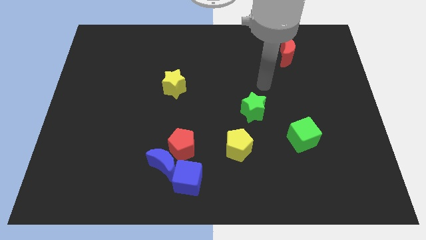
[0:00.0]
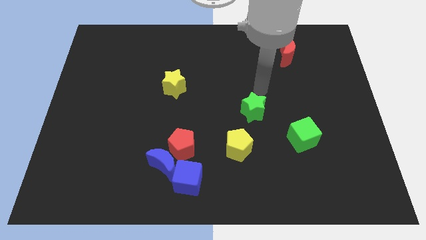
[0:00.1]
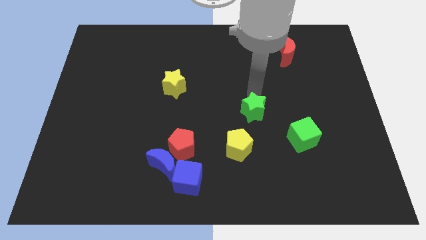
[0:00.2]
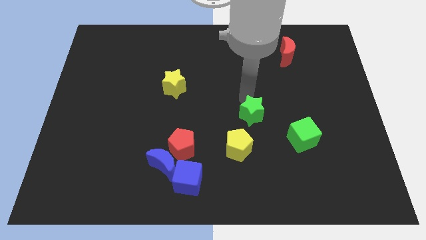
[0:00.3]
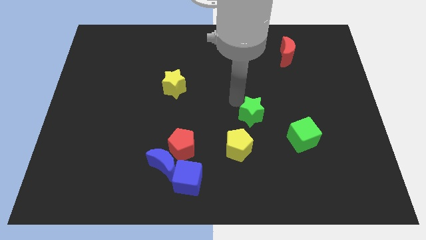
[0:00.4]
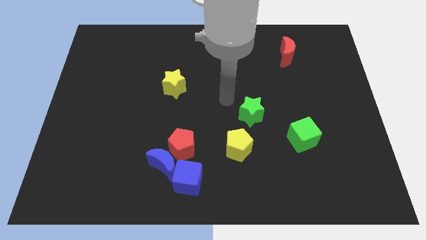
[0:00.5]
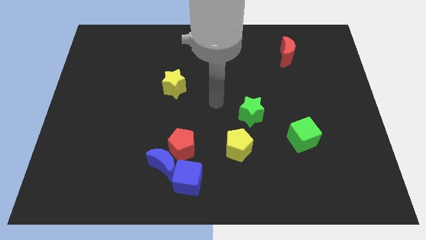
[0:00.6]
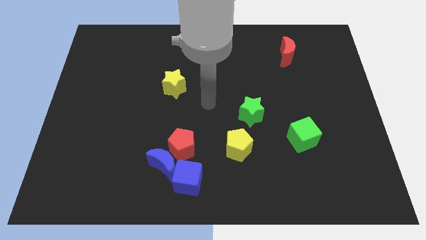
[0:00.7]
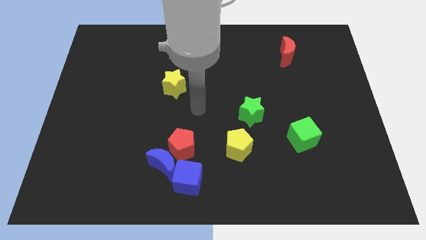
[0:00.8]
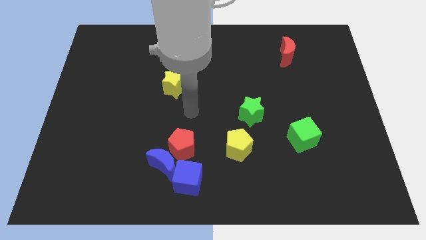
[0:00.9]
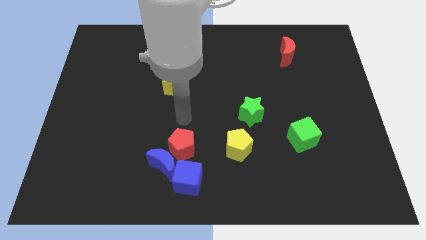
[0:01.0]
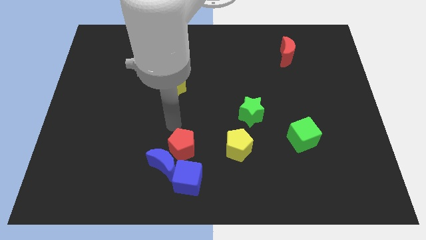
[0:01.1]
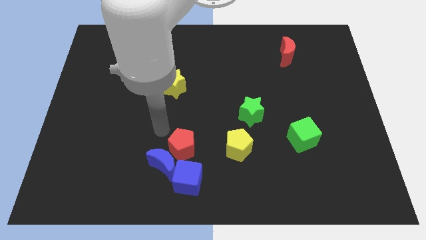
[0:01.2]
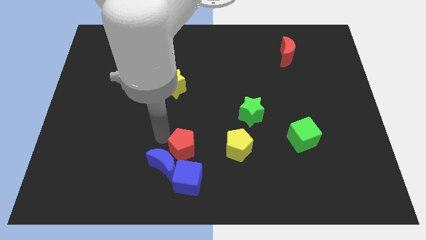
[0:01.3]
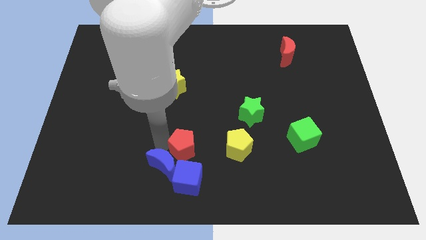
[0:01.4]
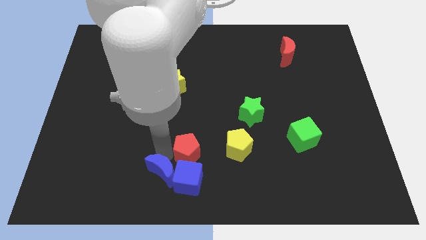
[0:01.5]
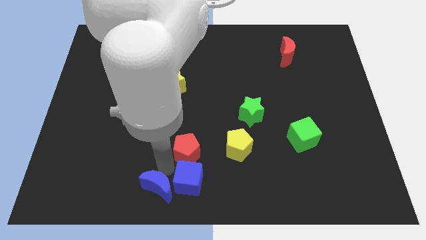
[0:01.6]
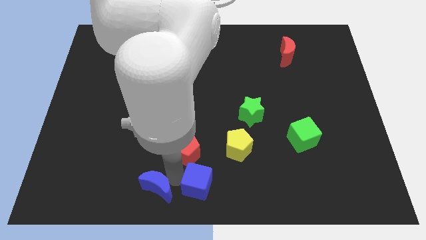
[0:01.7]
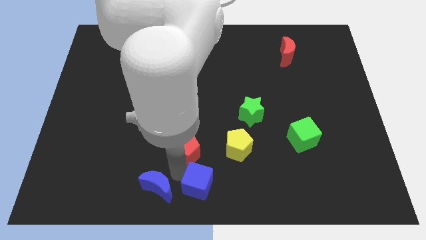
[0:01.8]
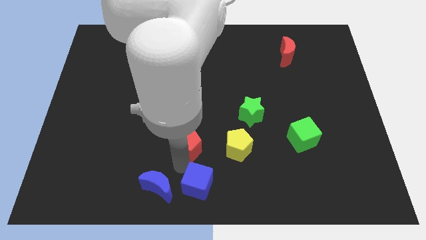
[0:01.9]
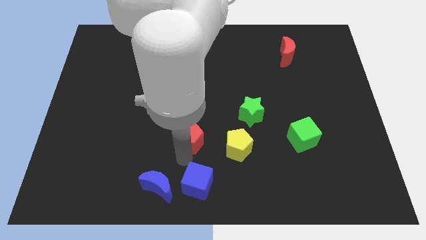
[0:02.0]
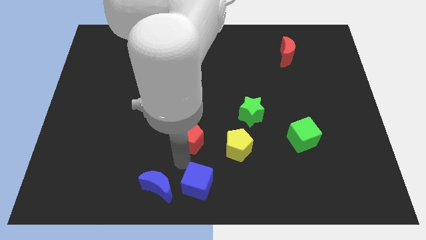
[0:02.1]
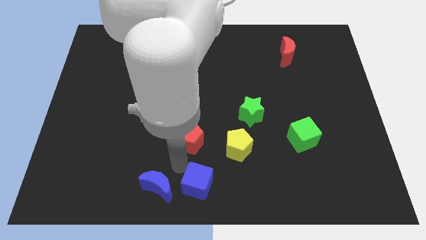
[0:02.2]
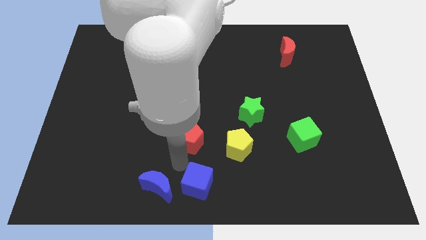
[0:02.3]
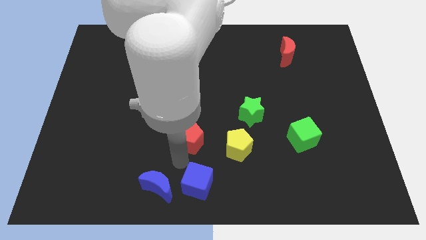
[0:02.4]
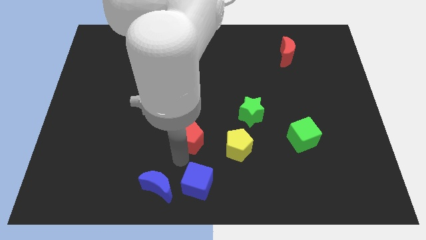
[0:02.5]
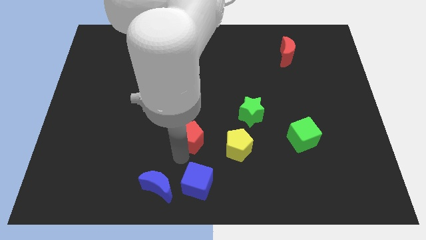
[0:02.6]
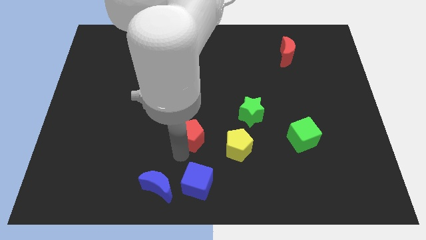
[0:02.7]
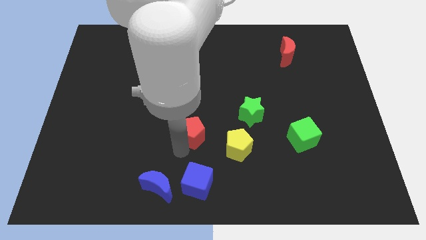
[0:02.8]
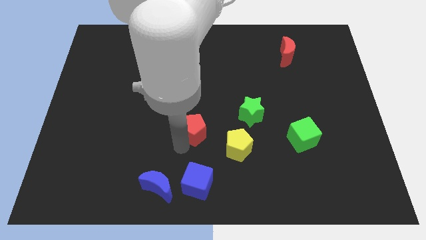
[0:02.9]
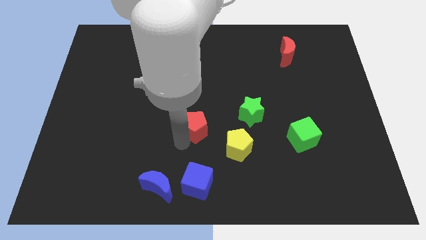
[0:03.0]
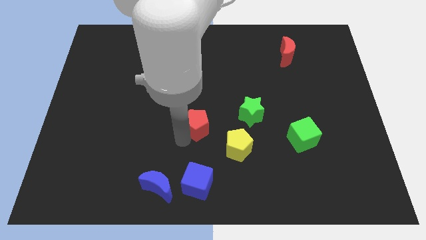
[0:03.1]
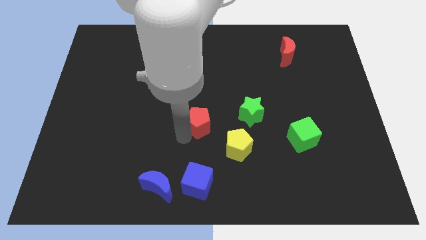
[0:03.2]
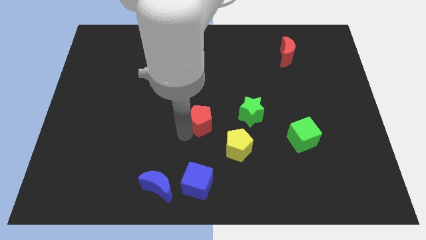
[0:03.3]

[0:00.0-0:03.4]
slightly push the red pentagon upwards and then to the right

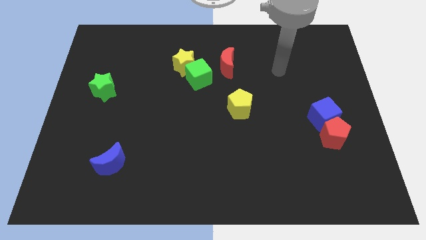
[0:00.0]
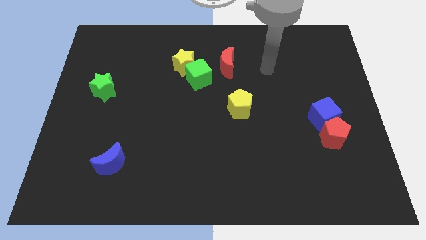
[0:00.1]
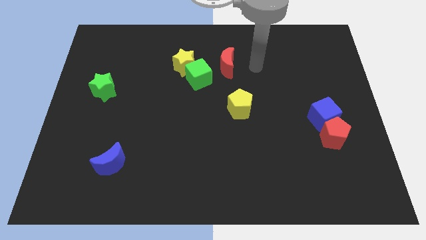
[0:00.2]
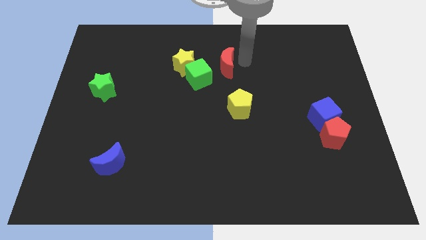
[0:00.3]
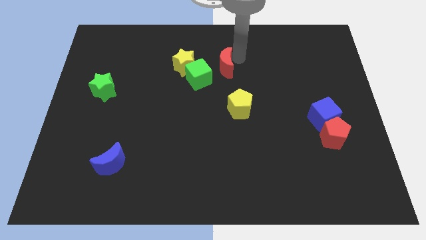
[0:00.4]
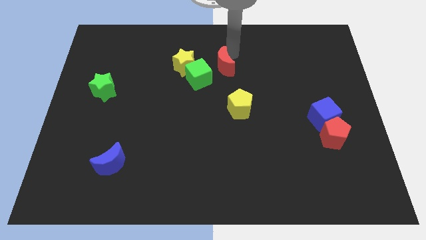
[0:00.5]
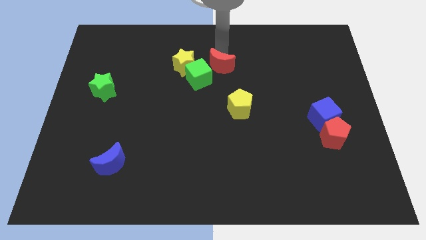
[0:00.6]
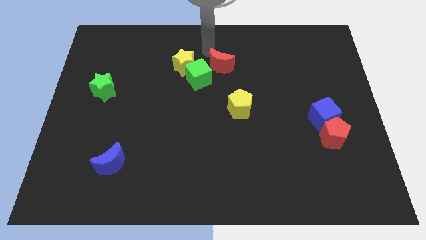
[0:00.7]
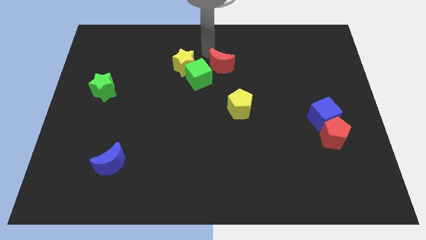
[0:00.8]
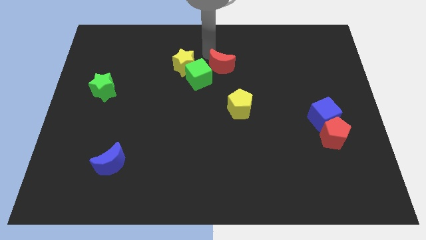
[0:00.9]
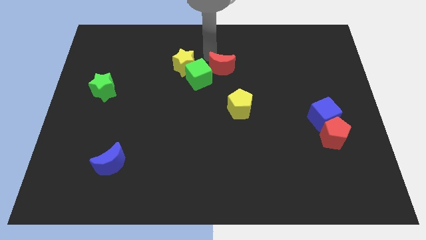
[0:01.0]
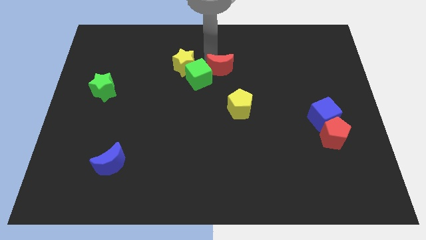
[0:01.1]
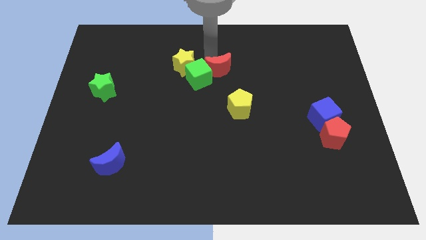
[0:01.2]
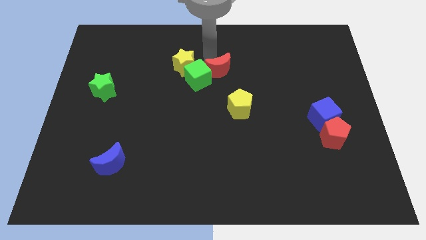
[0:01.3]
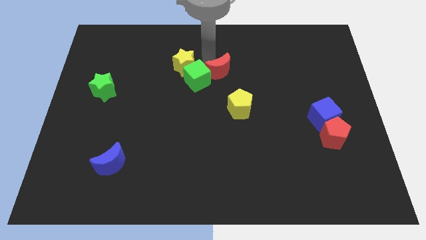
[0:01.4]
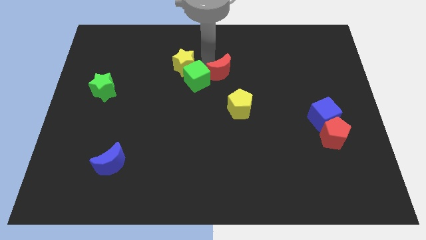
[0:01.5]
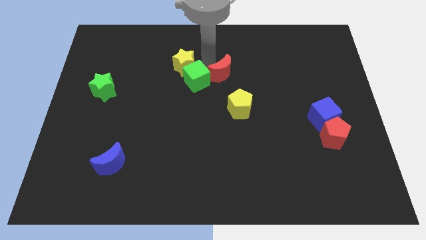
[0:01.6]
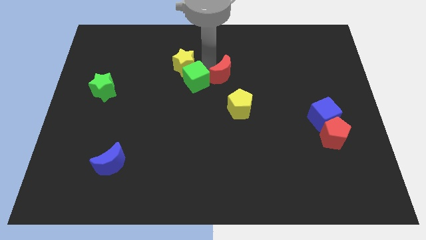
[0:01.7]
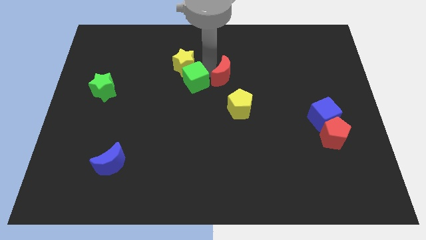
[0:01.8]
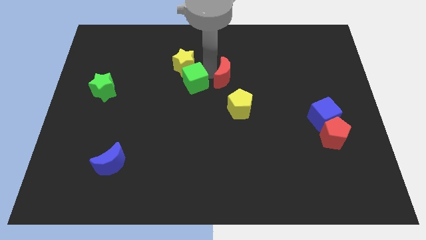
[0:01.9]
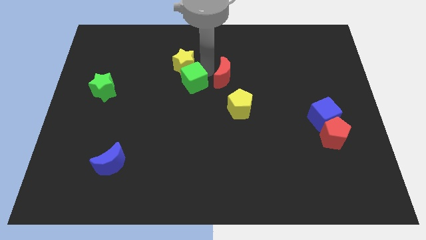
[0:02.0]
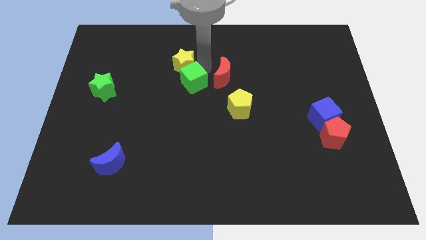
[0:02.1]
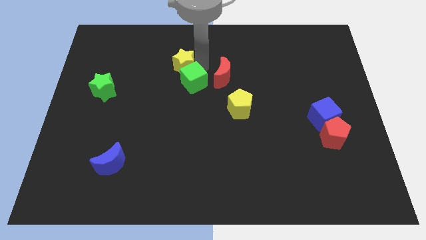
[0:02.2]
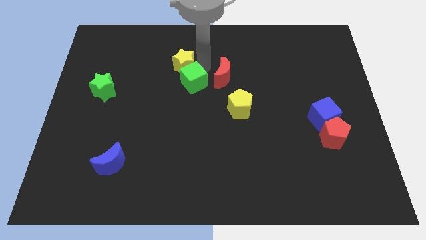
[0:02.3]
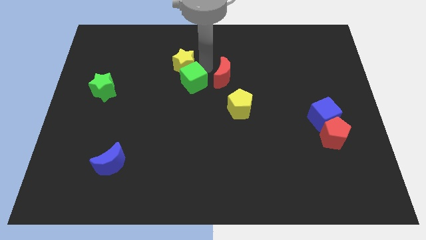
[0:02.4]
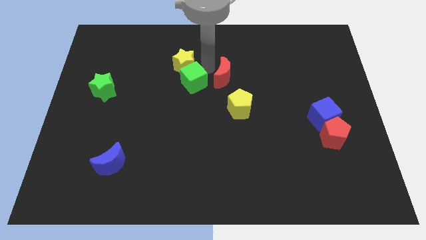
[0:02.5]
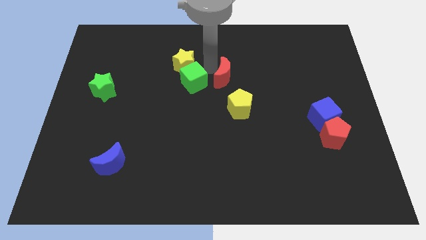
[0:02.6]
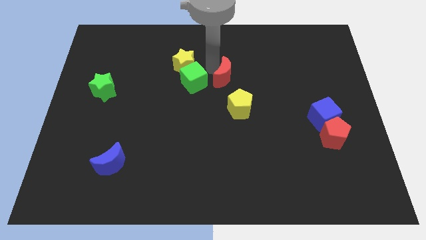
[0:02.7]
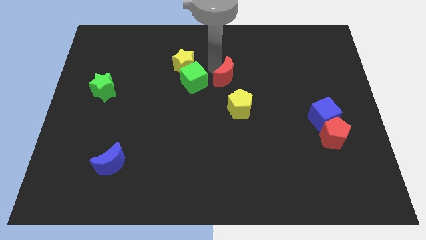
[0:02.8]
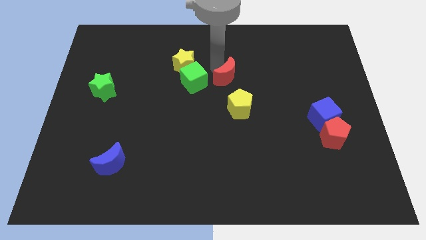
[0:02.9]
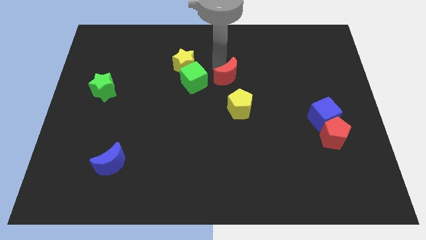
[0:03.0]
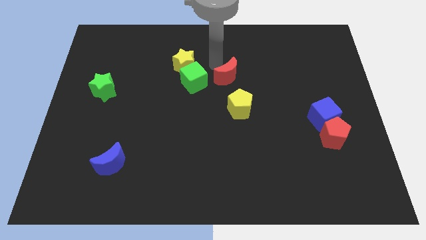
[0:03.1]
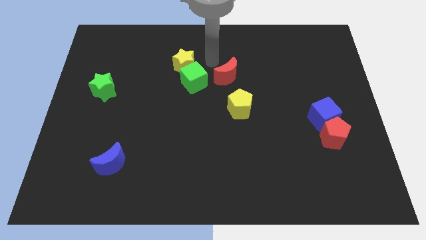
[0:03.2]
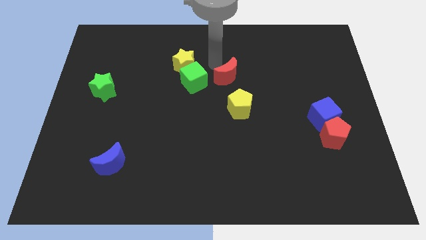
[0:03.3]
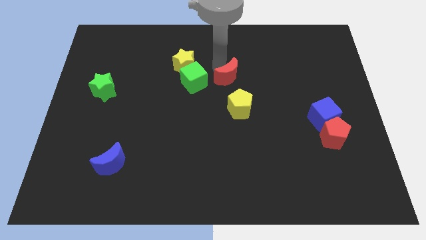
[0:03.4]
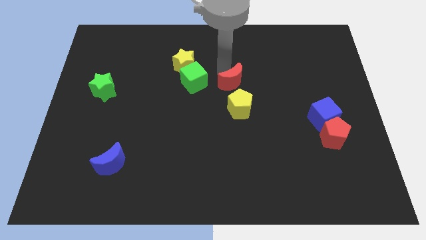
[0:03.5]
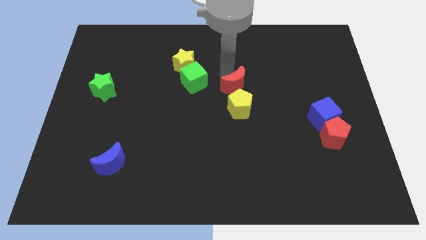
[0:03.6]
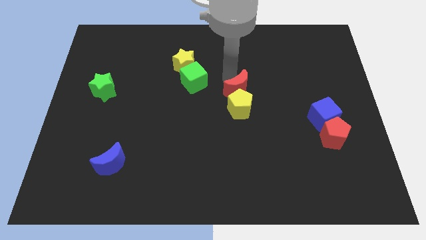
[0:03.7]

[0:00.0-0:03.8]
slightly move the red moon downwards and then to the right

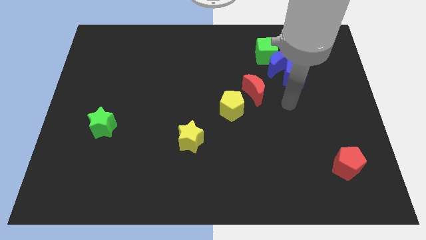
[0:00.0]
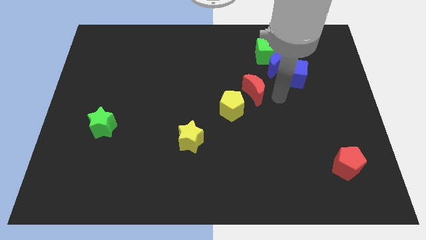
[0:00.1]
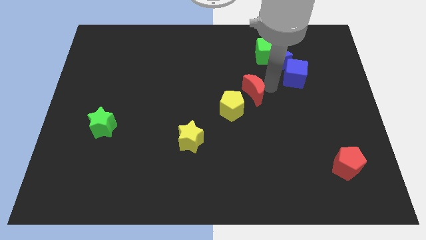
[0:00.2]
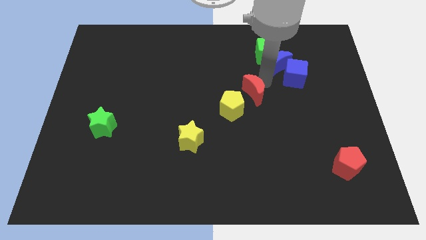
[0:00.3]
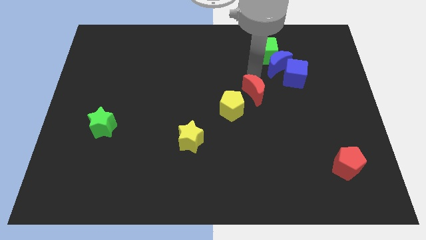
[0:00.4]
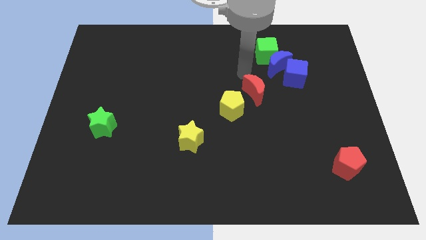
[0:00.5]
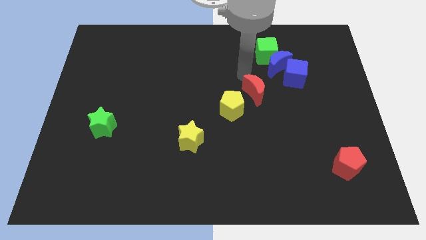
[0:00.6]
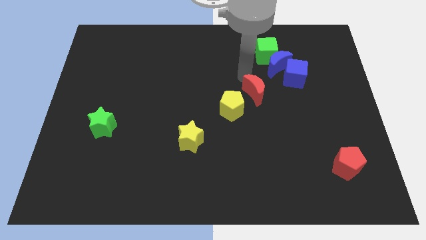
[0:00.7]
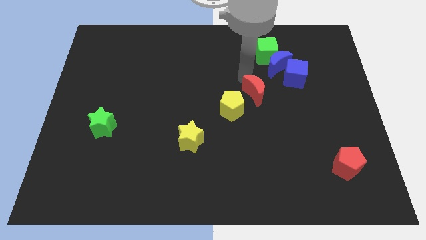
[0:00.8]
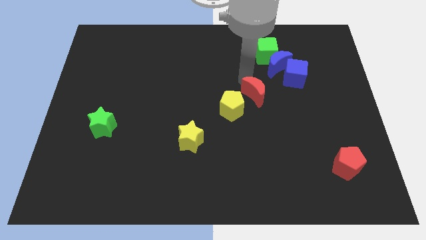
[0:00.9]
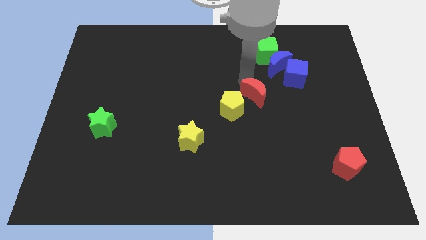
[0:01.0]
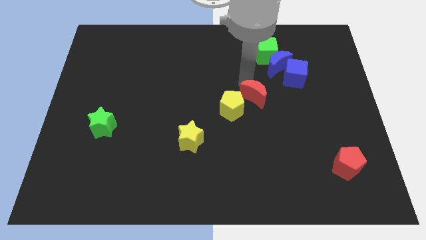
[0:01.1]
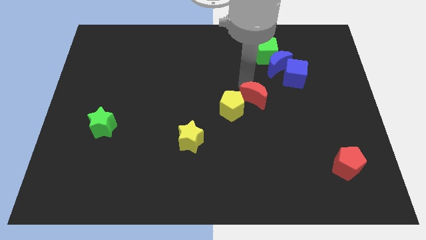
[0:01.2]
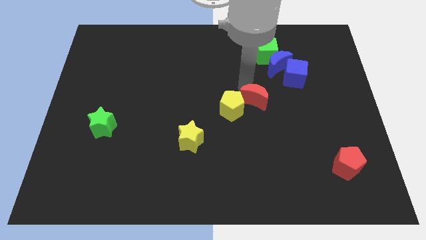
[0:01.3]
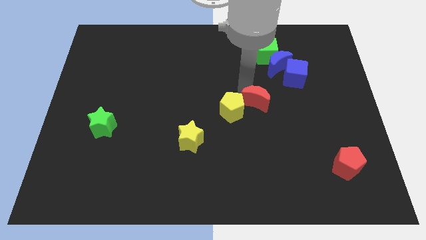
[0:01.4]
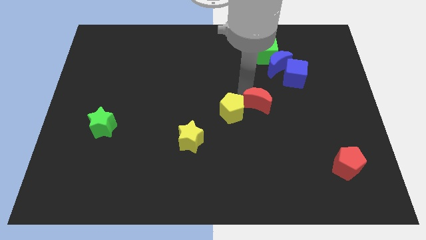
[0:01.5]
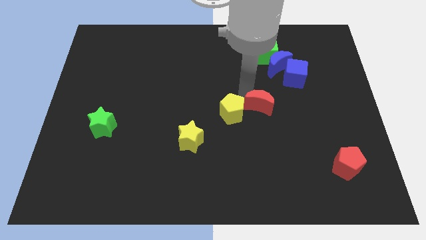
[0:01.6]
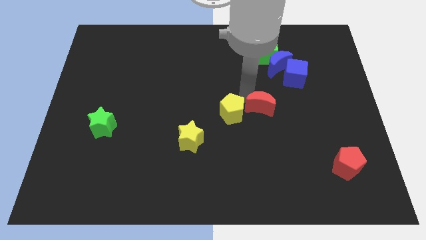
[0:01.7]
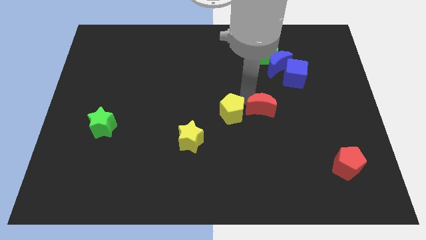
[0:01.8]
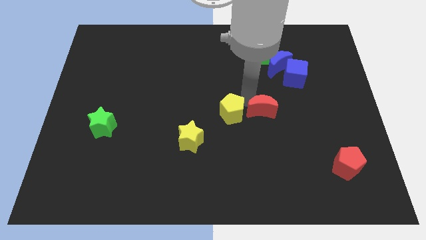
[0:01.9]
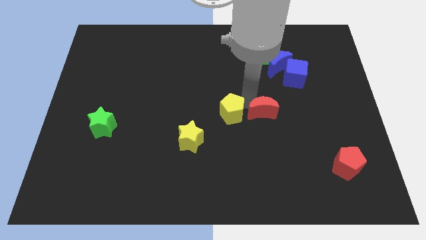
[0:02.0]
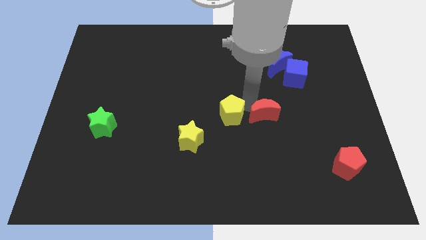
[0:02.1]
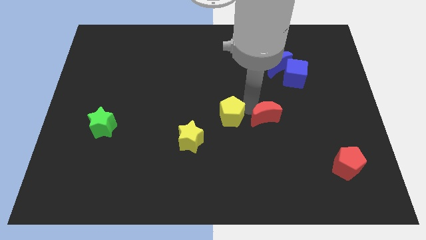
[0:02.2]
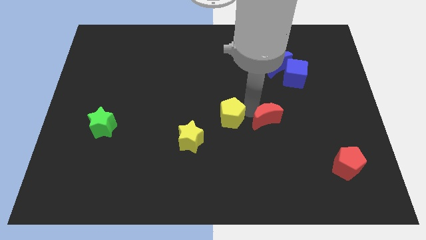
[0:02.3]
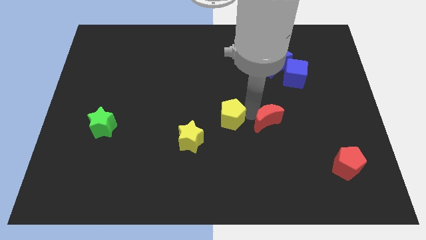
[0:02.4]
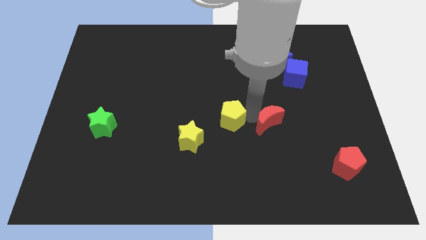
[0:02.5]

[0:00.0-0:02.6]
move the red moon downwards and right somewhat
